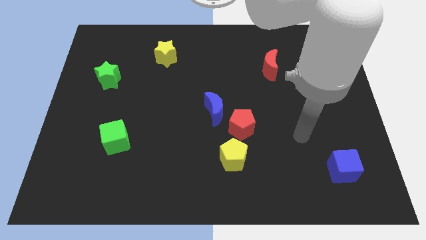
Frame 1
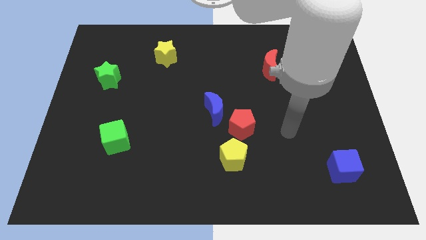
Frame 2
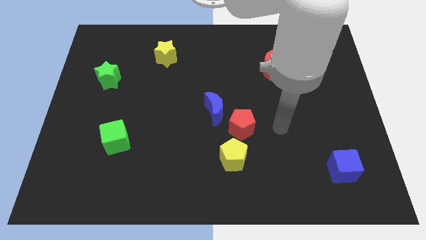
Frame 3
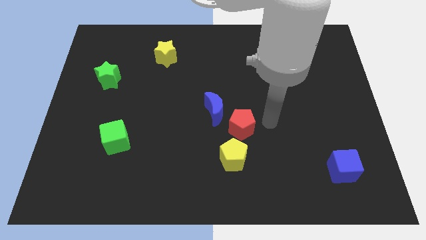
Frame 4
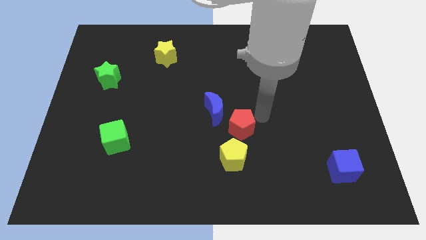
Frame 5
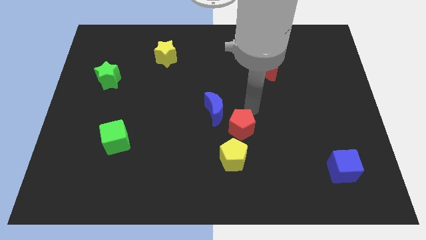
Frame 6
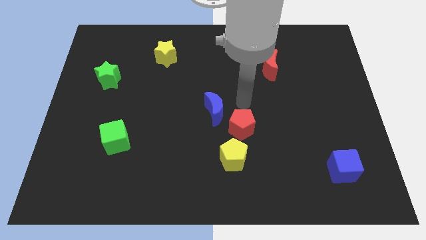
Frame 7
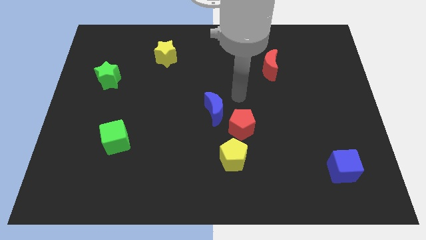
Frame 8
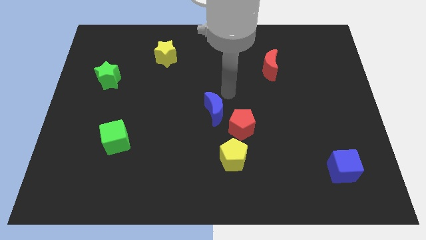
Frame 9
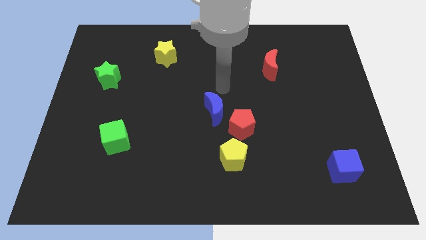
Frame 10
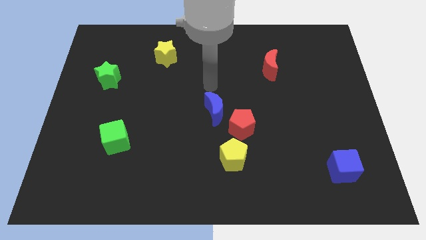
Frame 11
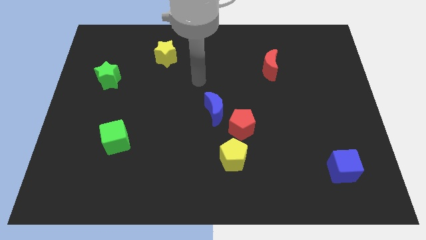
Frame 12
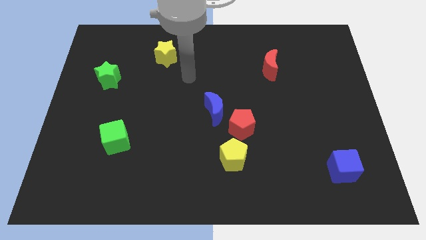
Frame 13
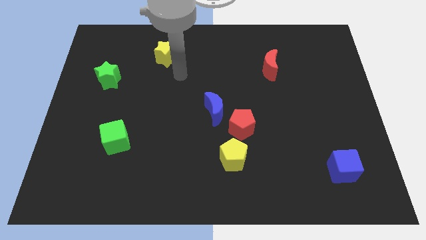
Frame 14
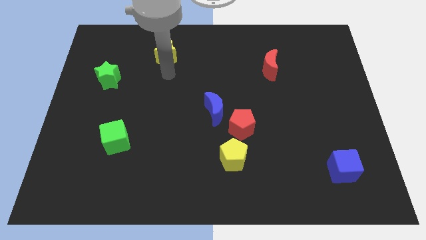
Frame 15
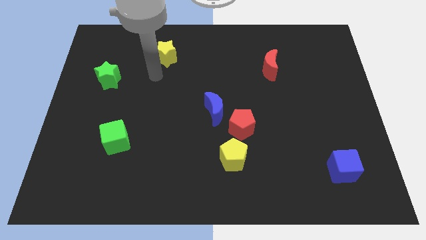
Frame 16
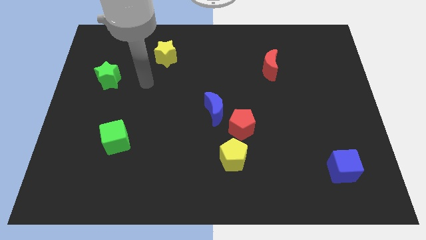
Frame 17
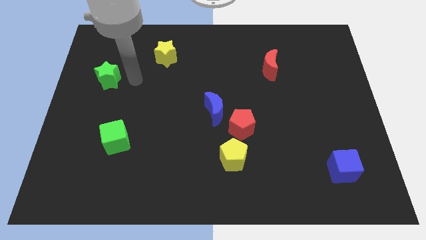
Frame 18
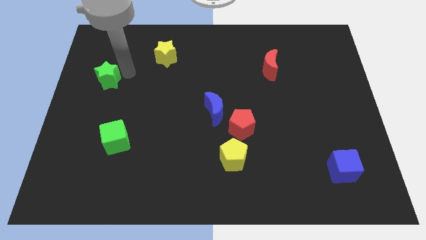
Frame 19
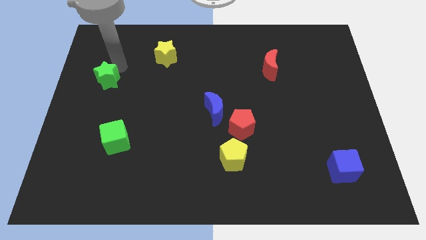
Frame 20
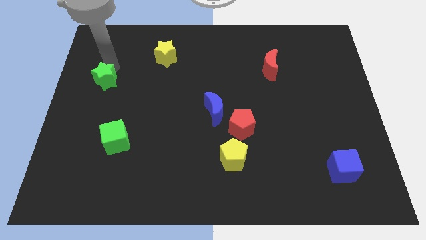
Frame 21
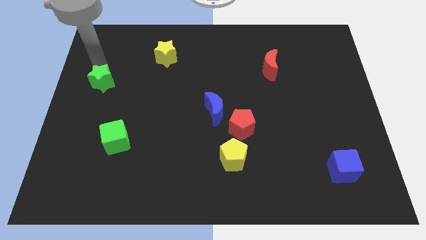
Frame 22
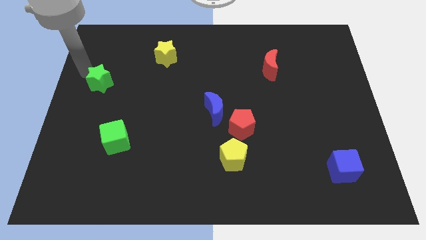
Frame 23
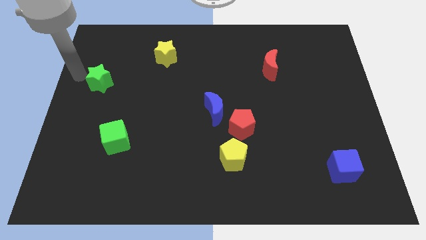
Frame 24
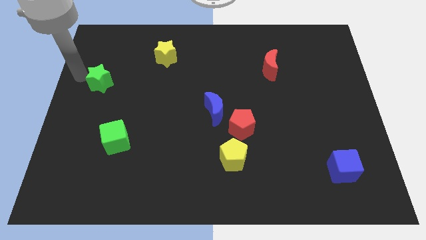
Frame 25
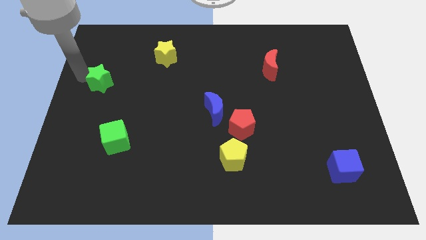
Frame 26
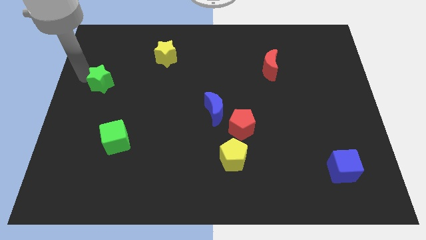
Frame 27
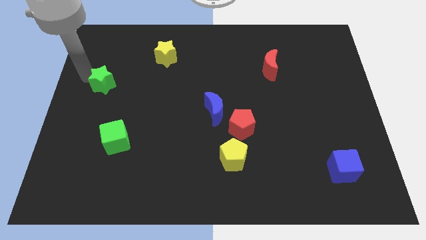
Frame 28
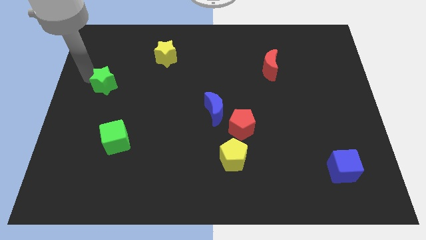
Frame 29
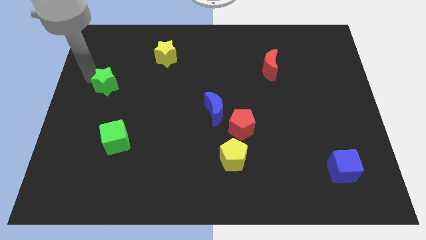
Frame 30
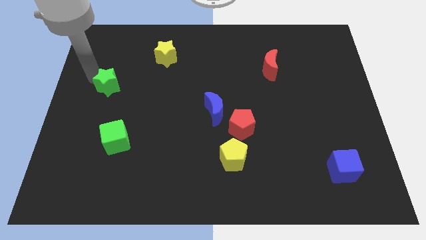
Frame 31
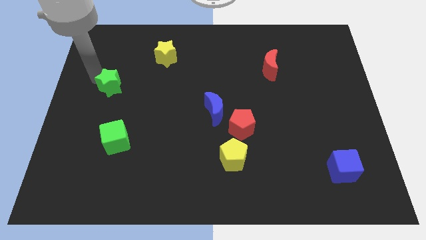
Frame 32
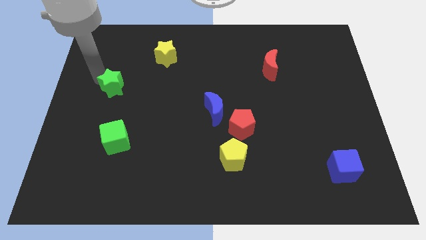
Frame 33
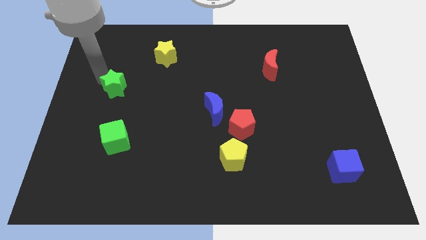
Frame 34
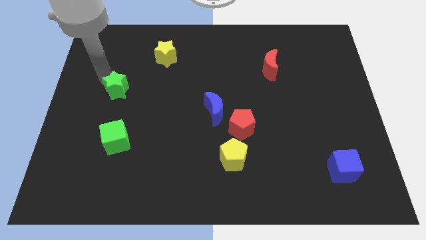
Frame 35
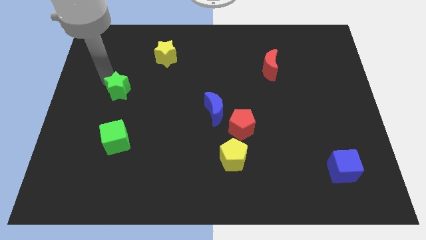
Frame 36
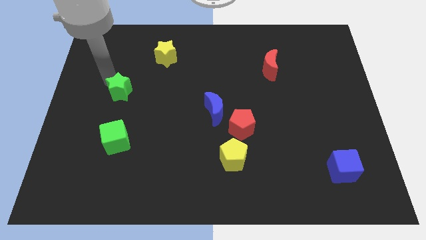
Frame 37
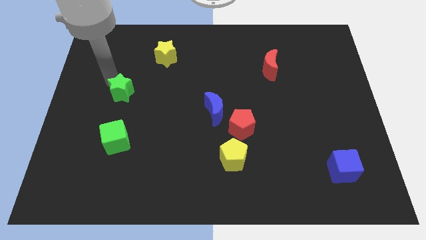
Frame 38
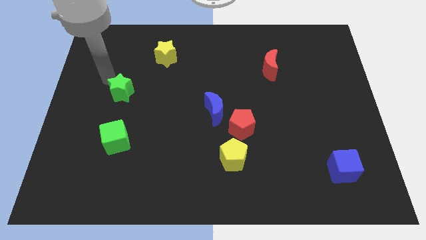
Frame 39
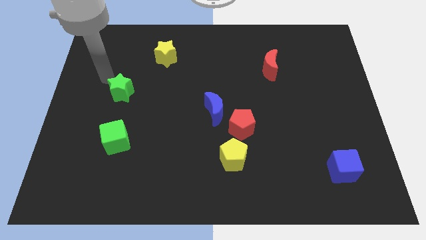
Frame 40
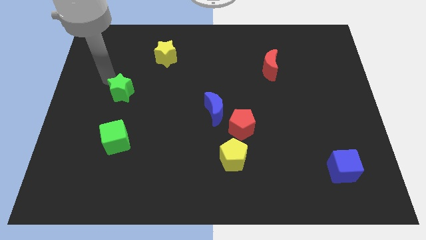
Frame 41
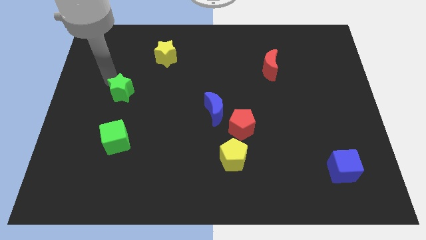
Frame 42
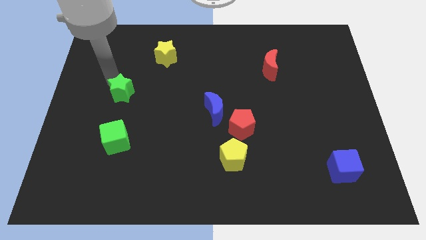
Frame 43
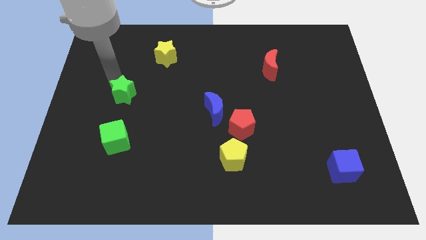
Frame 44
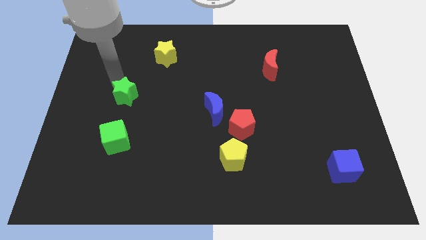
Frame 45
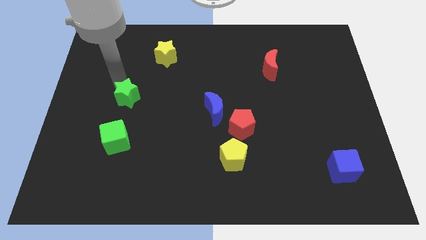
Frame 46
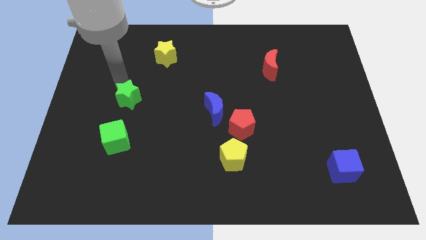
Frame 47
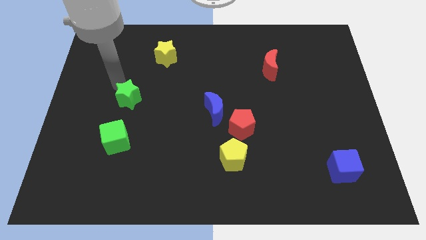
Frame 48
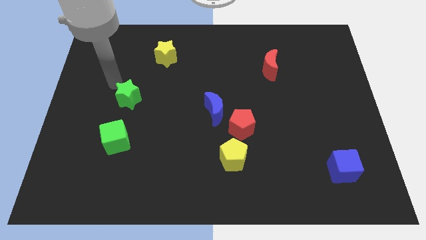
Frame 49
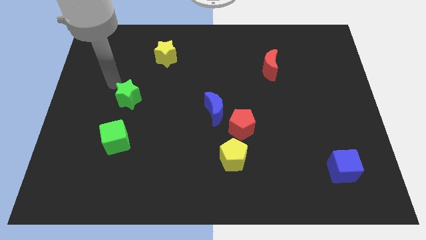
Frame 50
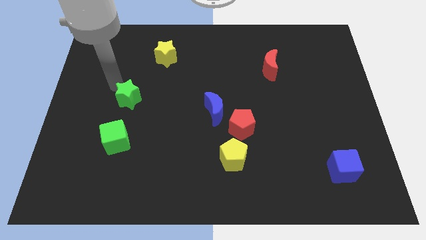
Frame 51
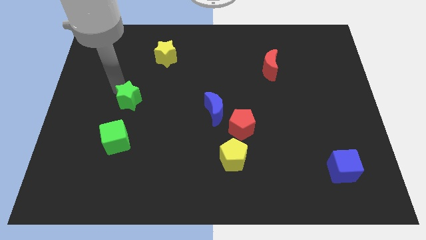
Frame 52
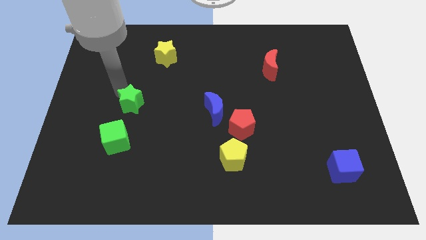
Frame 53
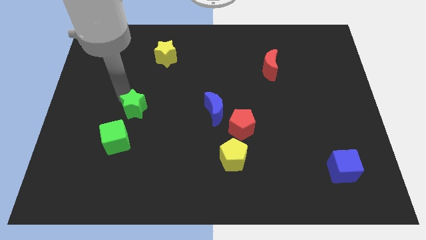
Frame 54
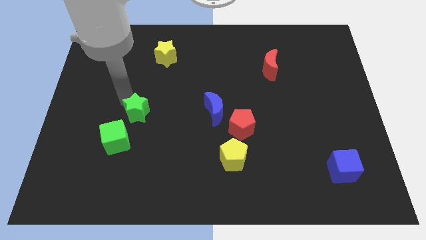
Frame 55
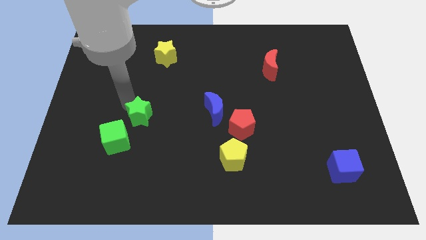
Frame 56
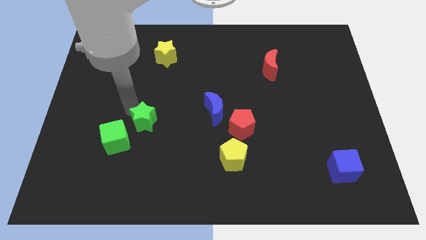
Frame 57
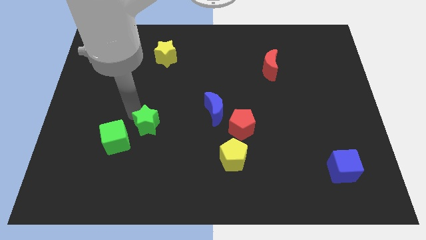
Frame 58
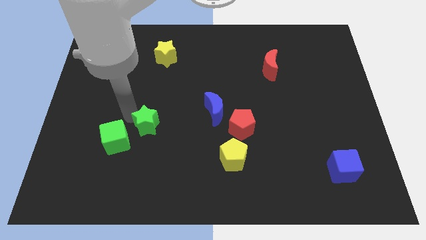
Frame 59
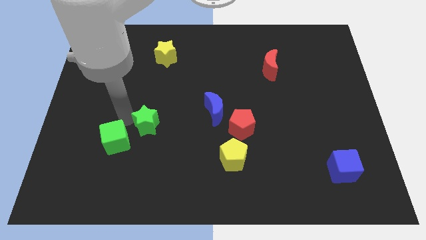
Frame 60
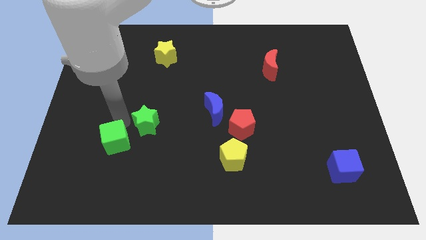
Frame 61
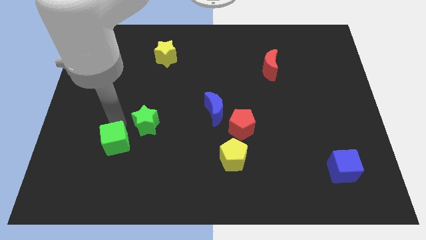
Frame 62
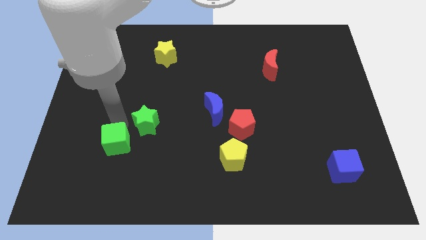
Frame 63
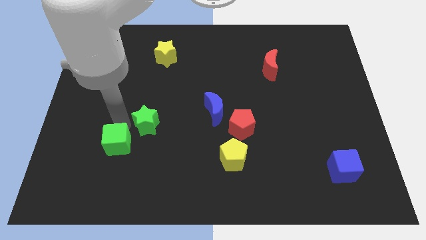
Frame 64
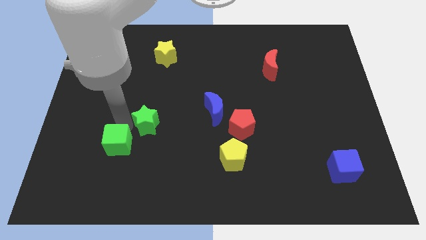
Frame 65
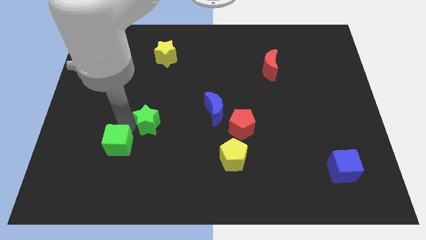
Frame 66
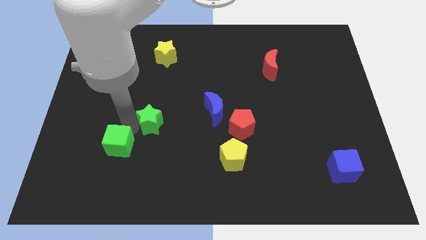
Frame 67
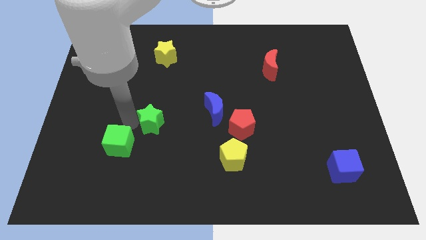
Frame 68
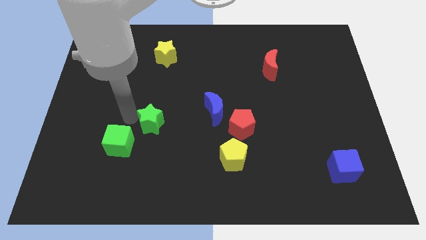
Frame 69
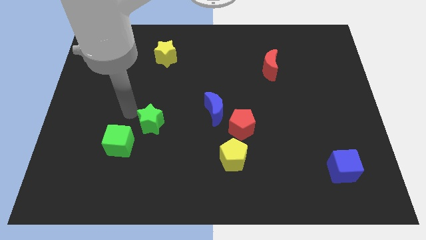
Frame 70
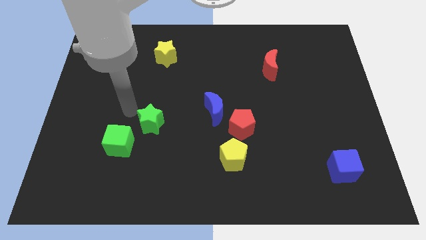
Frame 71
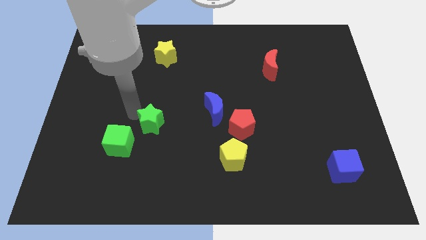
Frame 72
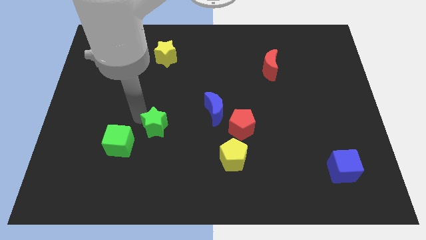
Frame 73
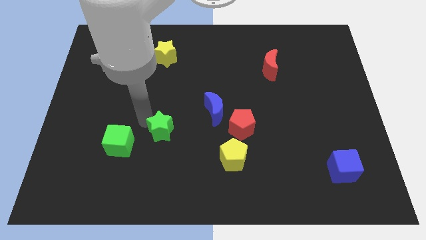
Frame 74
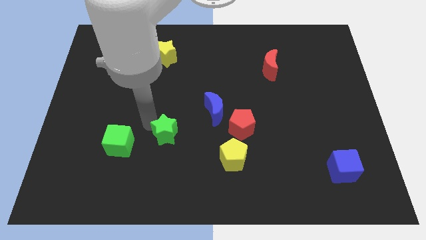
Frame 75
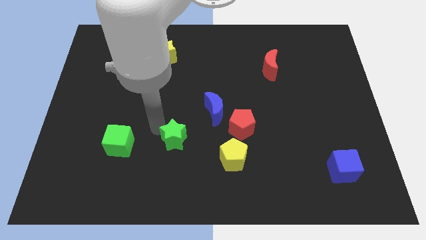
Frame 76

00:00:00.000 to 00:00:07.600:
put the green star just left of the yellow pentagon
